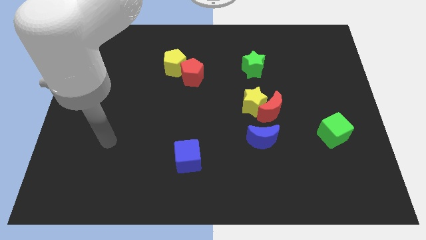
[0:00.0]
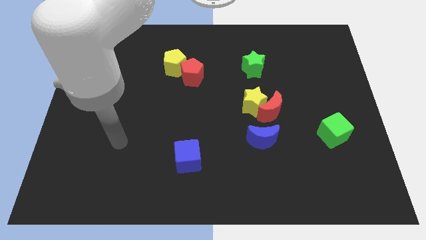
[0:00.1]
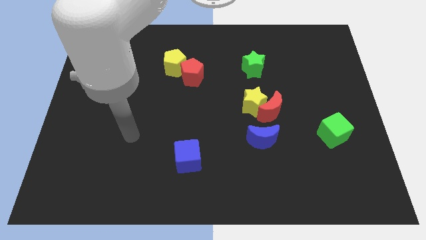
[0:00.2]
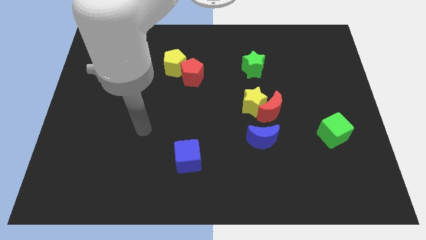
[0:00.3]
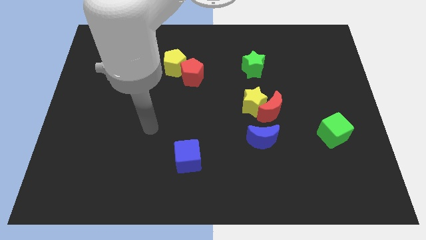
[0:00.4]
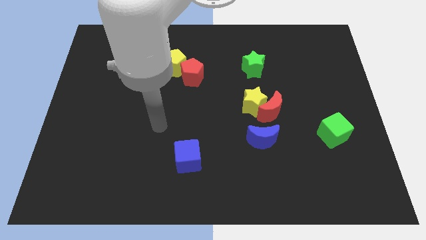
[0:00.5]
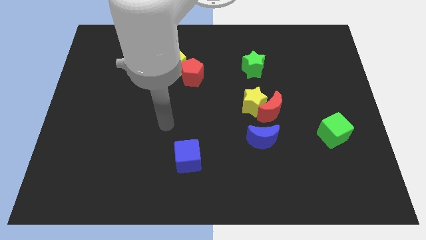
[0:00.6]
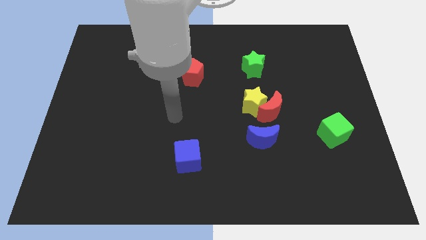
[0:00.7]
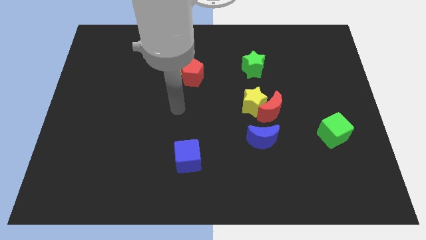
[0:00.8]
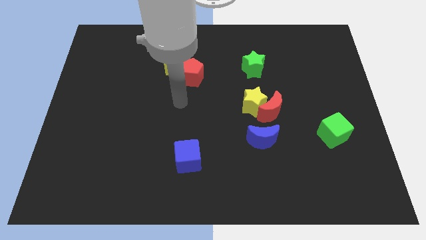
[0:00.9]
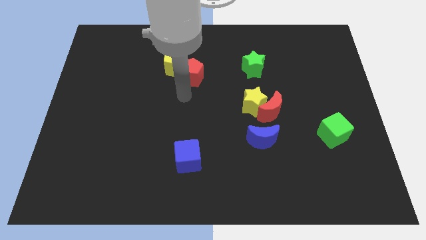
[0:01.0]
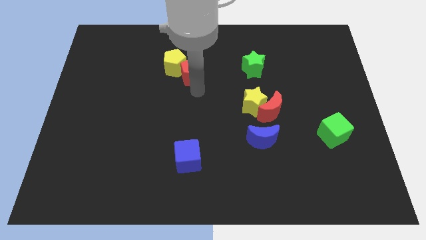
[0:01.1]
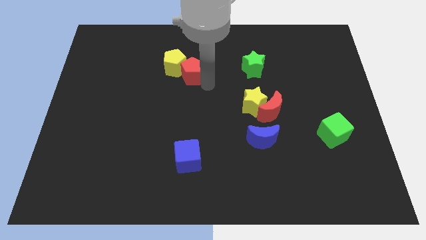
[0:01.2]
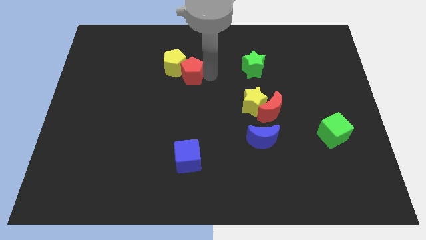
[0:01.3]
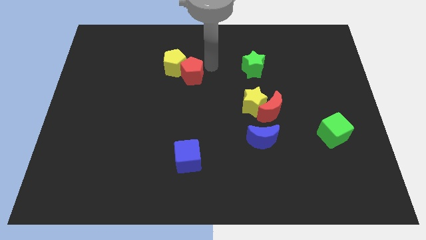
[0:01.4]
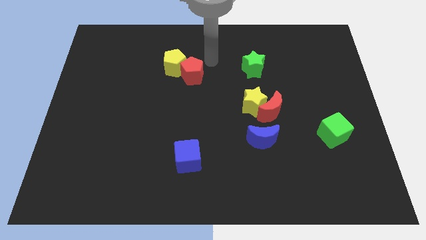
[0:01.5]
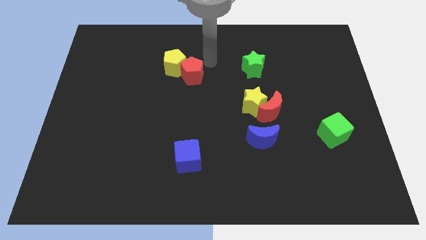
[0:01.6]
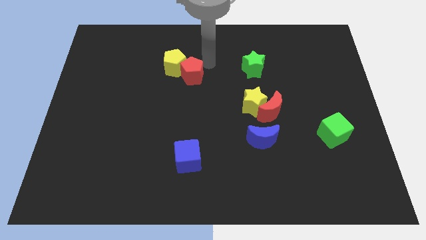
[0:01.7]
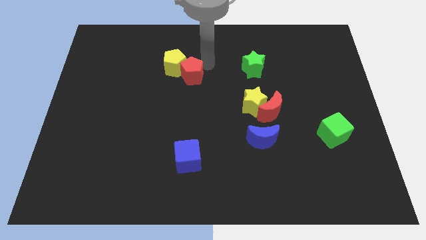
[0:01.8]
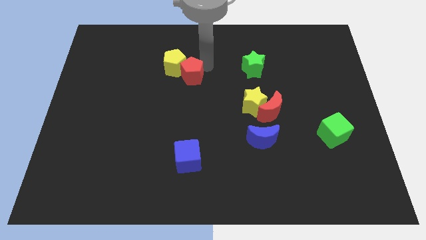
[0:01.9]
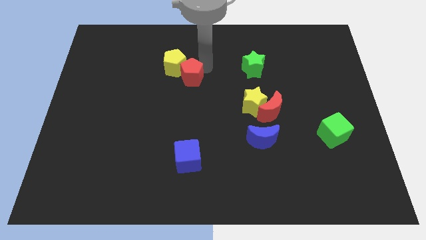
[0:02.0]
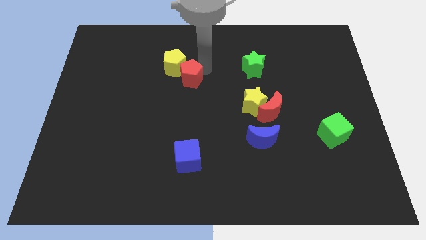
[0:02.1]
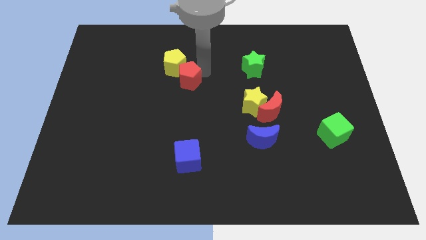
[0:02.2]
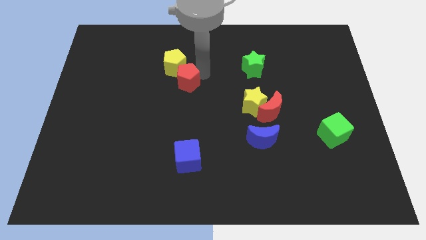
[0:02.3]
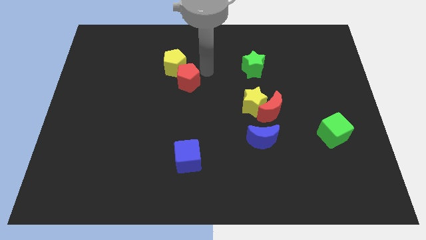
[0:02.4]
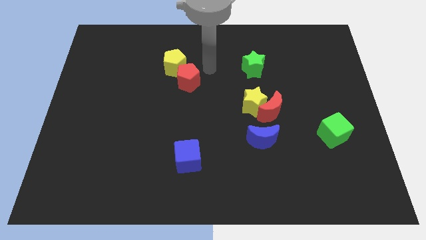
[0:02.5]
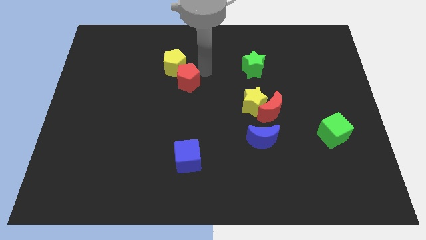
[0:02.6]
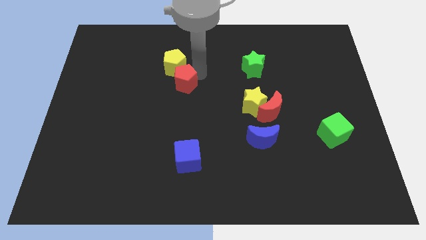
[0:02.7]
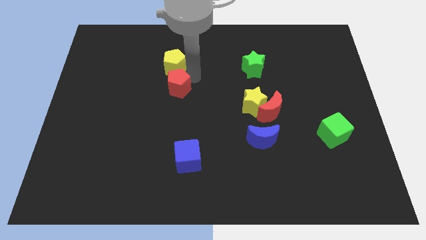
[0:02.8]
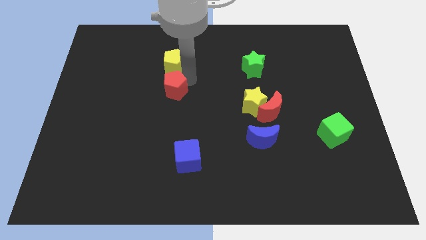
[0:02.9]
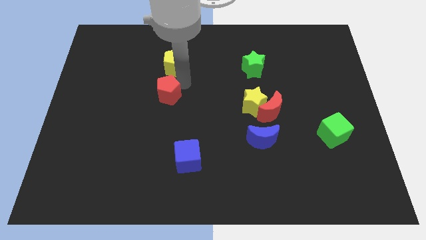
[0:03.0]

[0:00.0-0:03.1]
push the red pentagon down and to the left diagonally somewhat

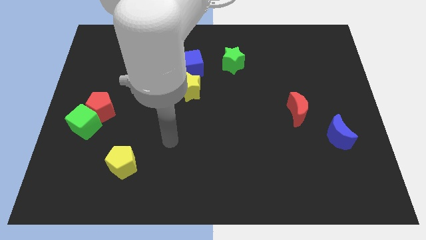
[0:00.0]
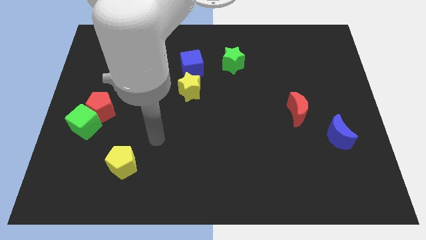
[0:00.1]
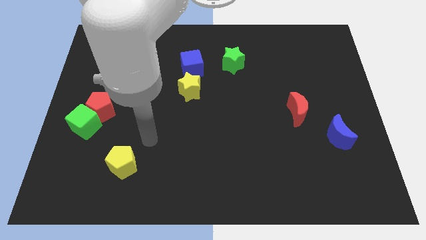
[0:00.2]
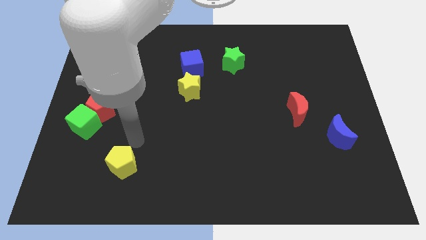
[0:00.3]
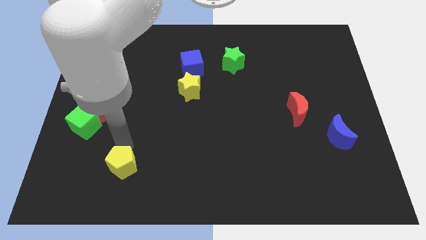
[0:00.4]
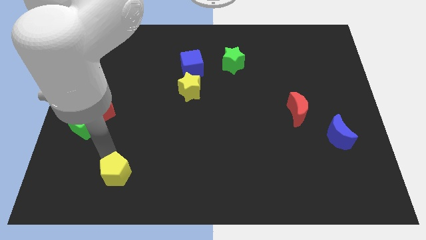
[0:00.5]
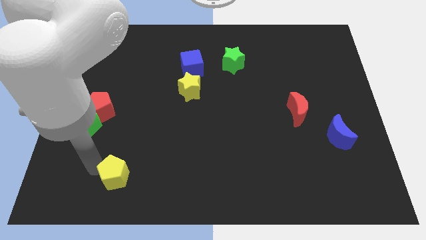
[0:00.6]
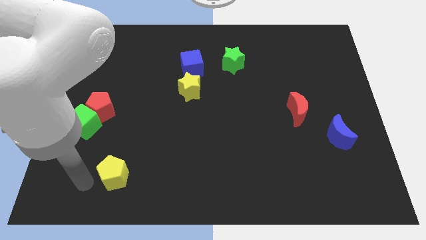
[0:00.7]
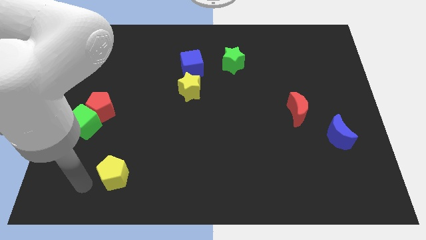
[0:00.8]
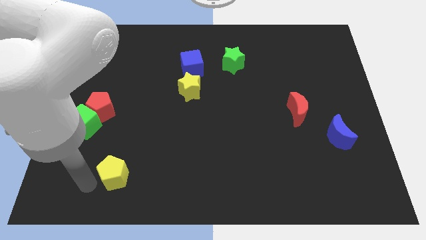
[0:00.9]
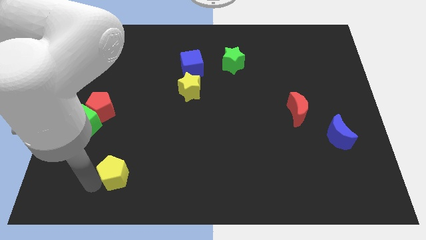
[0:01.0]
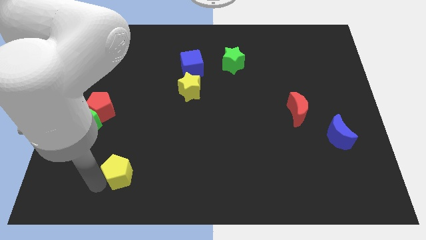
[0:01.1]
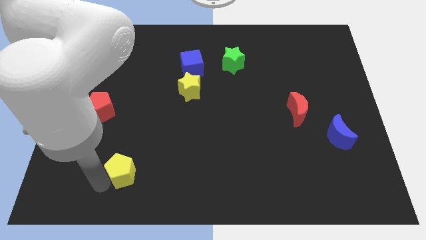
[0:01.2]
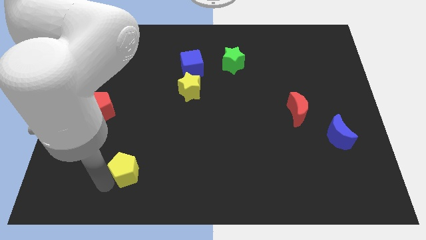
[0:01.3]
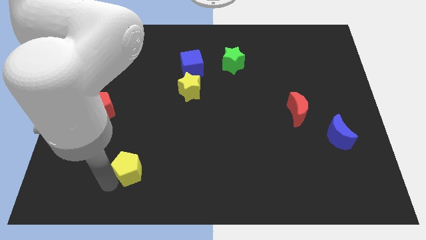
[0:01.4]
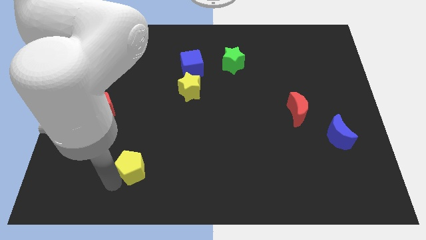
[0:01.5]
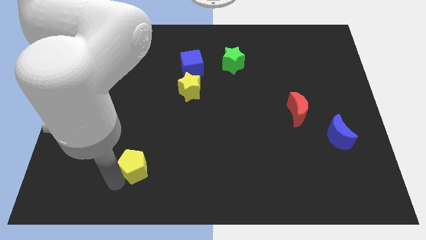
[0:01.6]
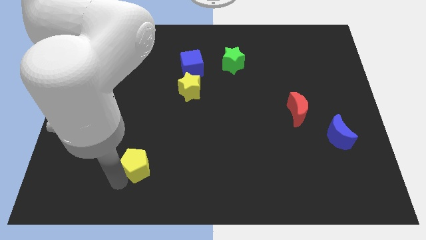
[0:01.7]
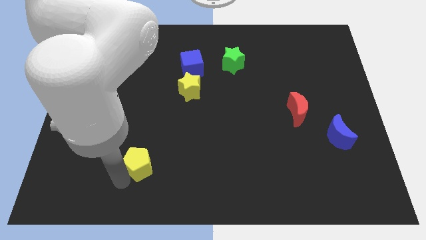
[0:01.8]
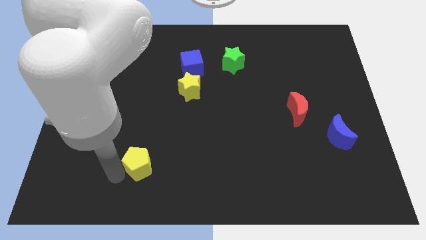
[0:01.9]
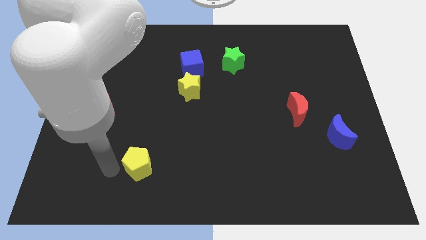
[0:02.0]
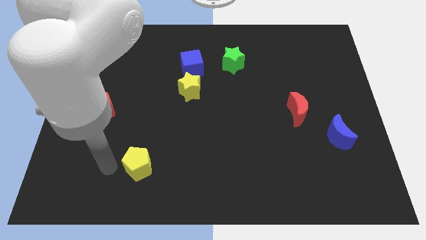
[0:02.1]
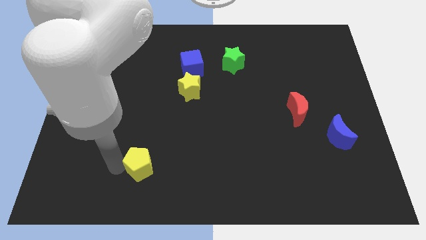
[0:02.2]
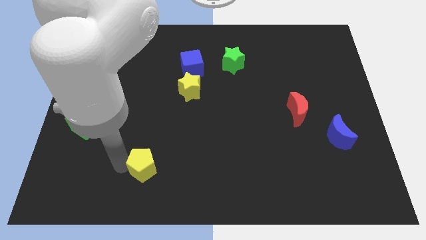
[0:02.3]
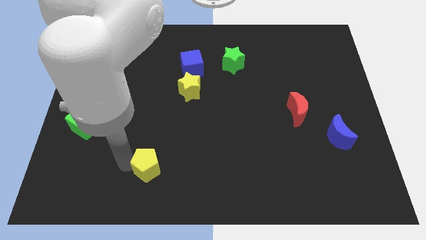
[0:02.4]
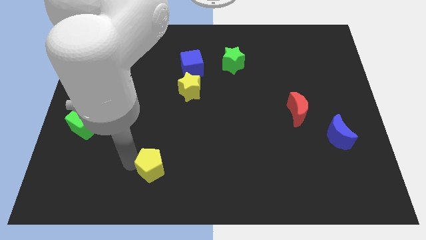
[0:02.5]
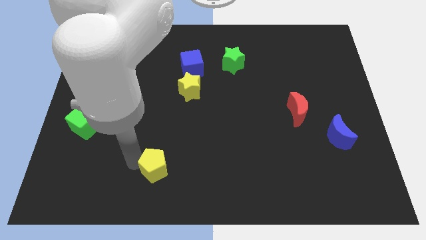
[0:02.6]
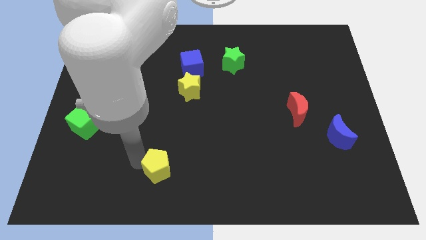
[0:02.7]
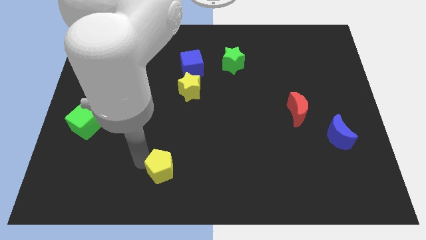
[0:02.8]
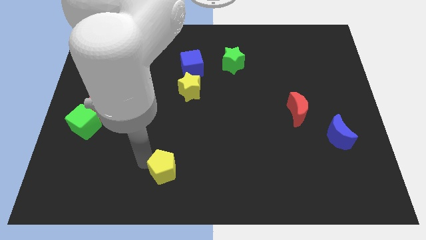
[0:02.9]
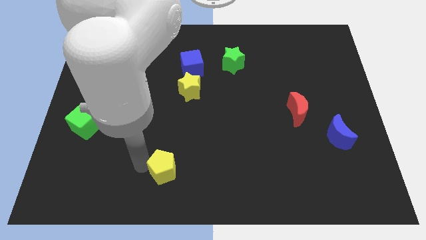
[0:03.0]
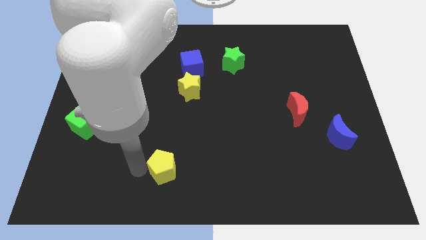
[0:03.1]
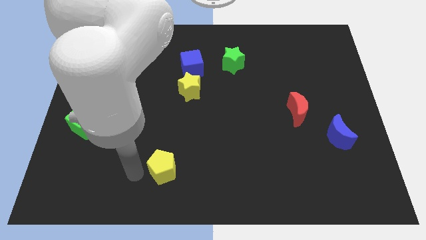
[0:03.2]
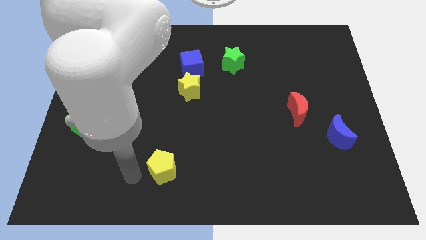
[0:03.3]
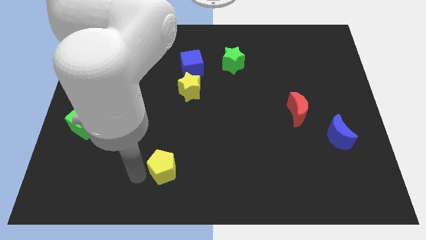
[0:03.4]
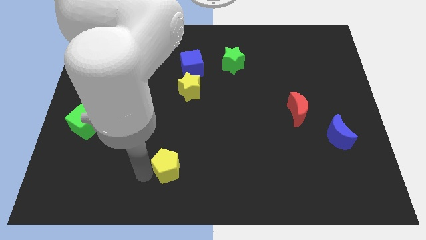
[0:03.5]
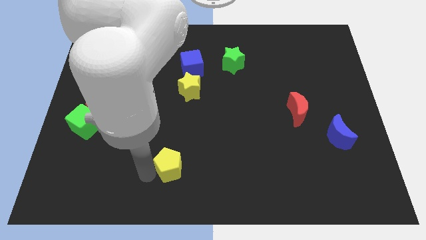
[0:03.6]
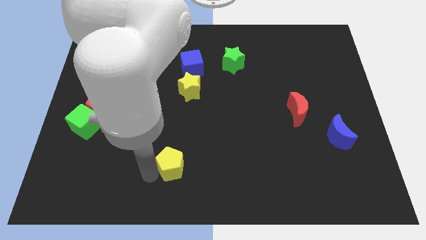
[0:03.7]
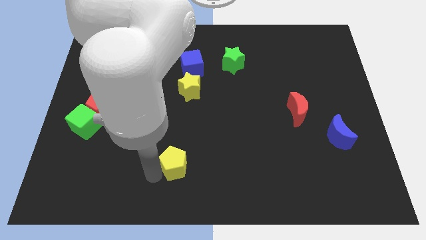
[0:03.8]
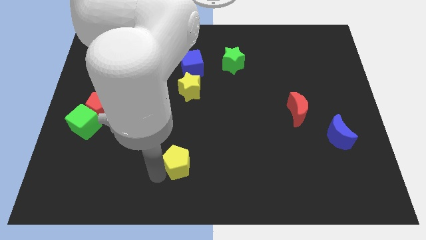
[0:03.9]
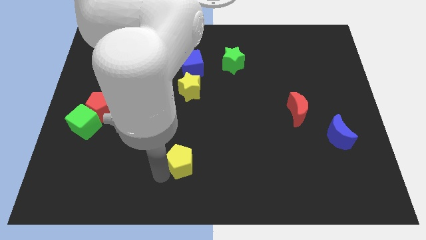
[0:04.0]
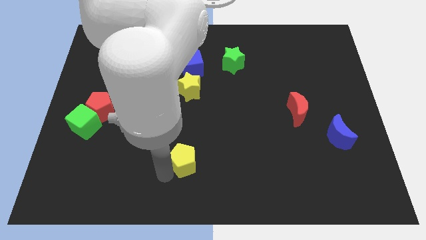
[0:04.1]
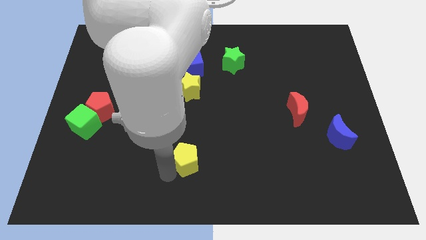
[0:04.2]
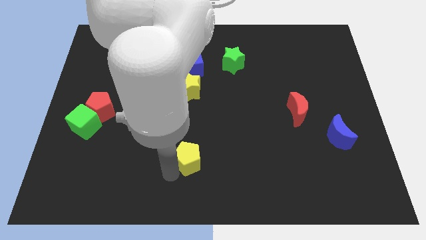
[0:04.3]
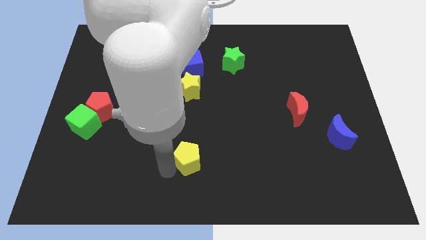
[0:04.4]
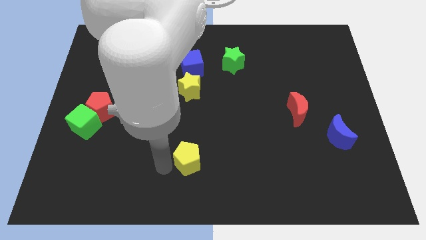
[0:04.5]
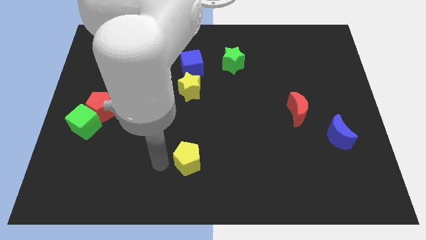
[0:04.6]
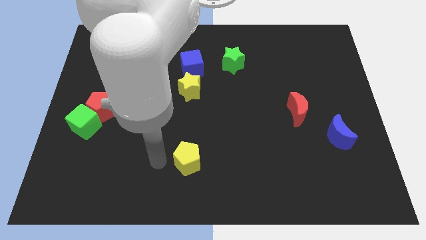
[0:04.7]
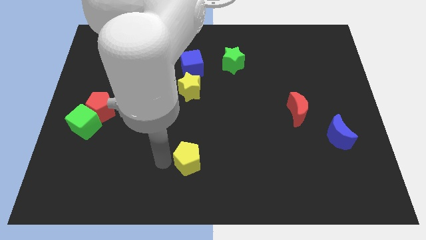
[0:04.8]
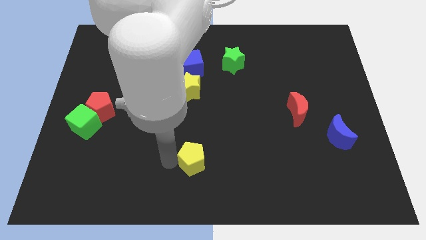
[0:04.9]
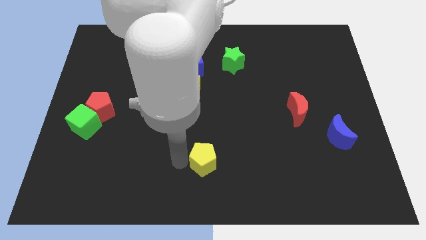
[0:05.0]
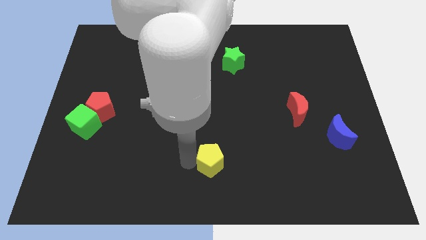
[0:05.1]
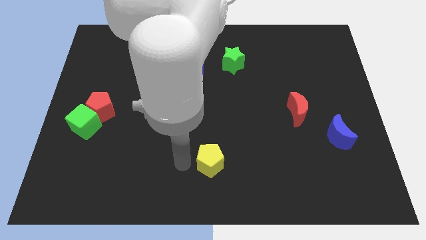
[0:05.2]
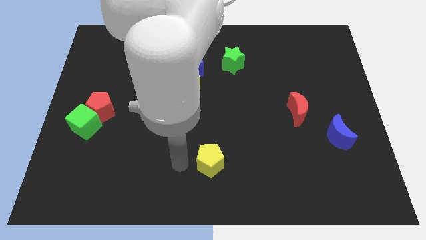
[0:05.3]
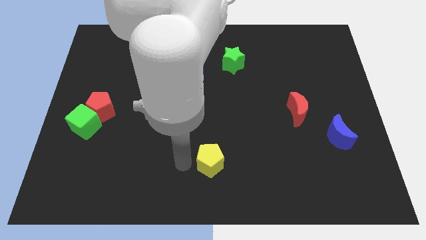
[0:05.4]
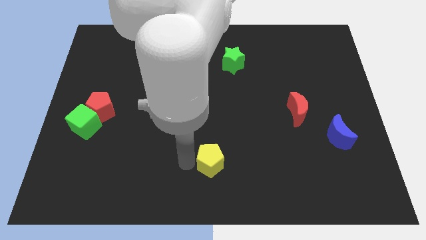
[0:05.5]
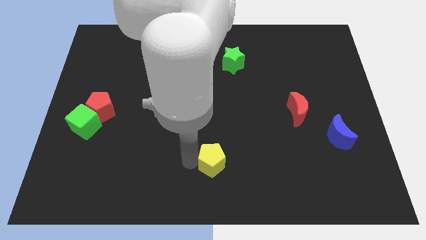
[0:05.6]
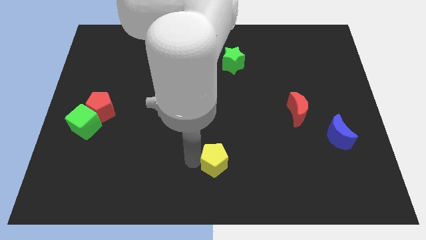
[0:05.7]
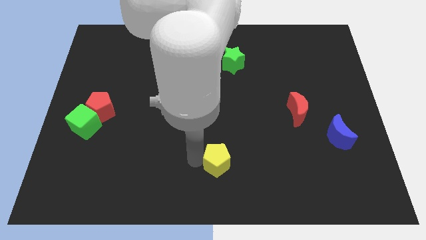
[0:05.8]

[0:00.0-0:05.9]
push the yellow pentagon right
